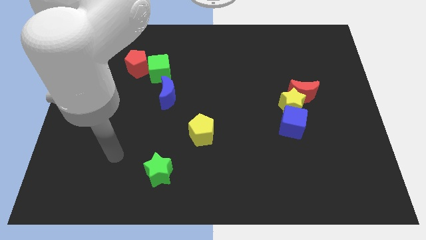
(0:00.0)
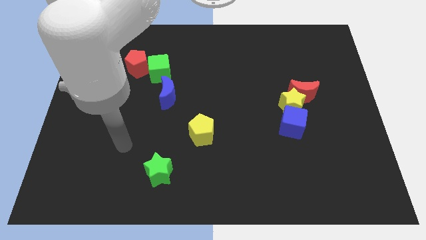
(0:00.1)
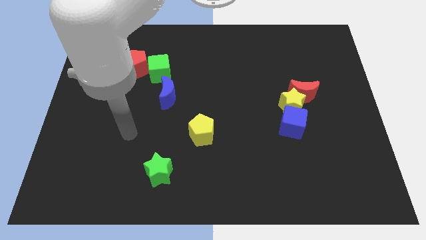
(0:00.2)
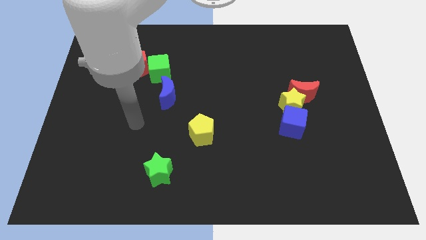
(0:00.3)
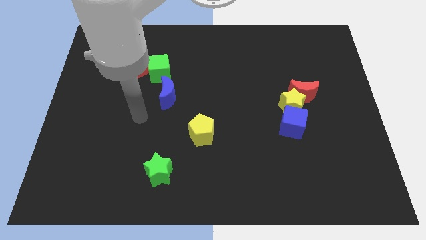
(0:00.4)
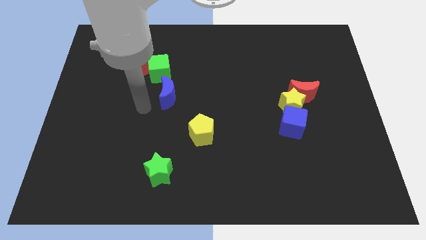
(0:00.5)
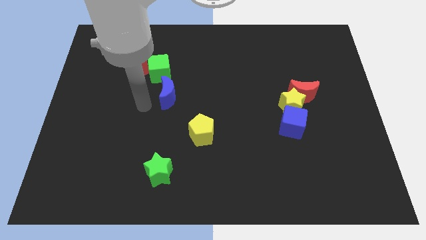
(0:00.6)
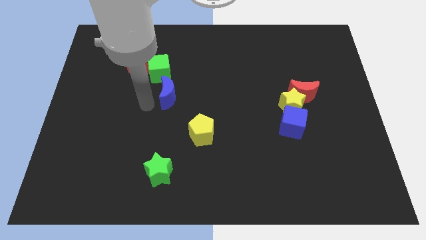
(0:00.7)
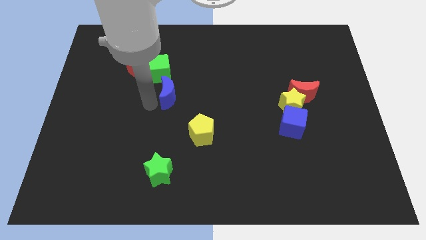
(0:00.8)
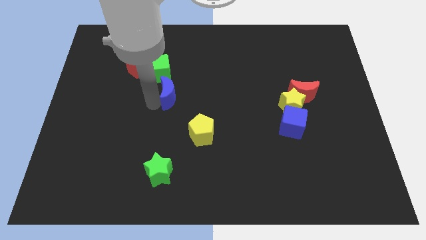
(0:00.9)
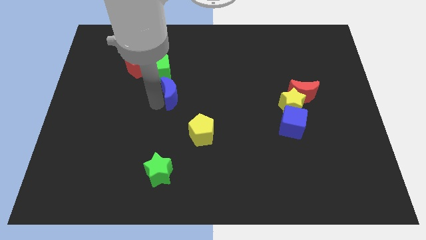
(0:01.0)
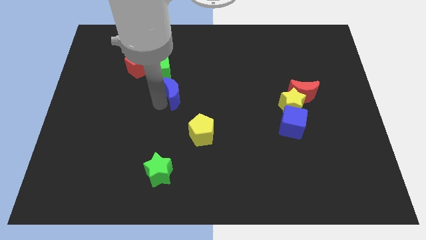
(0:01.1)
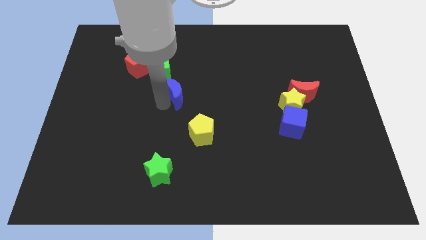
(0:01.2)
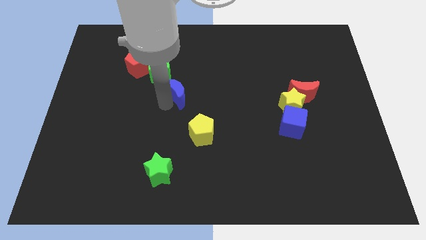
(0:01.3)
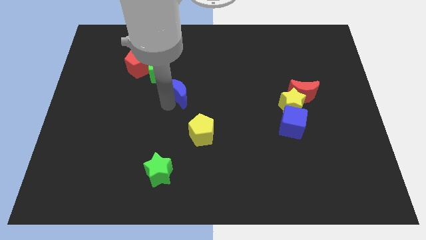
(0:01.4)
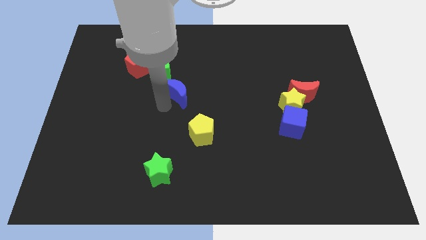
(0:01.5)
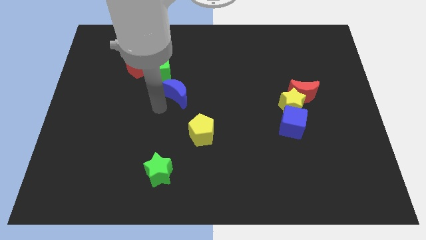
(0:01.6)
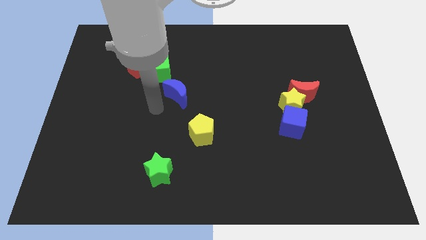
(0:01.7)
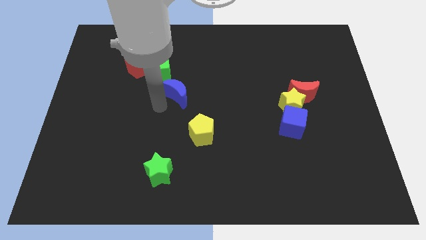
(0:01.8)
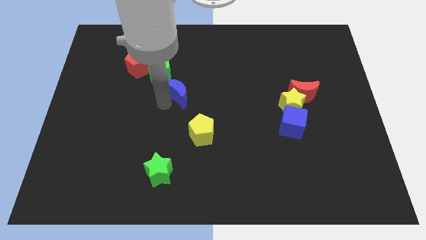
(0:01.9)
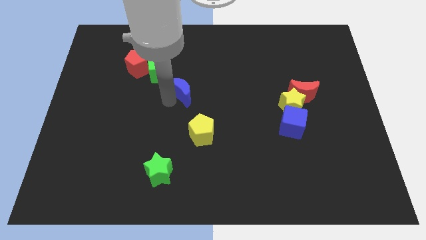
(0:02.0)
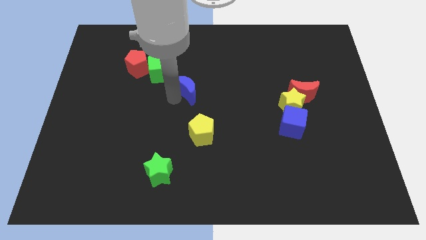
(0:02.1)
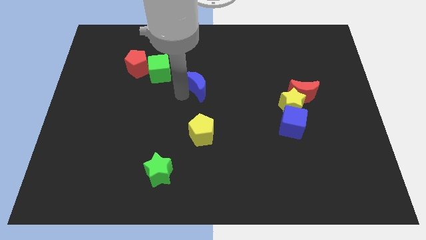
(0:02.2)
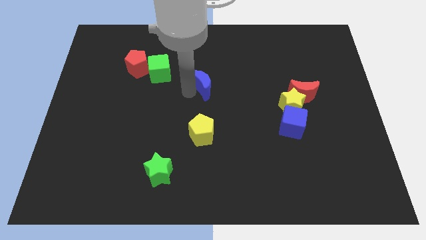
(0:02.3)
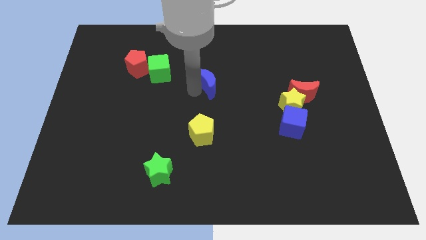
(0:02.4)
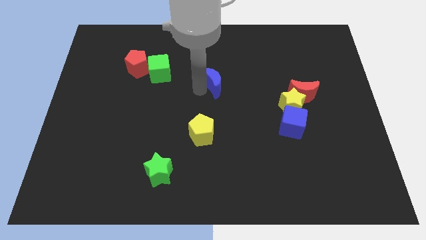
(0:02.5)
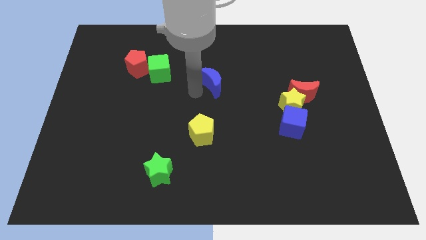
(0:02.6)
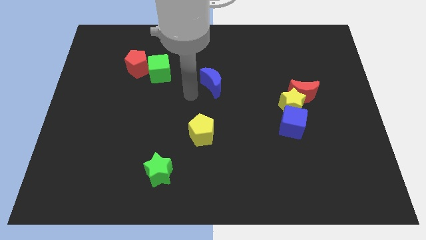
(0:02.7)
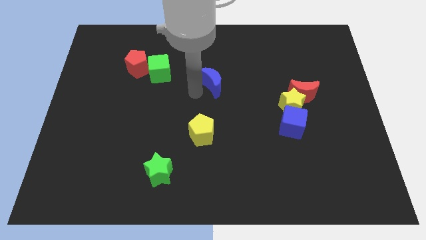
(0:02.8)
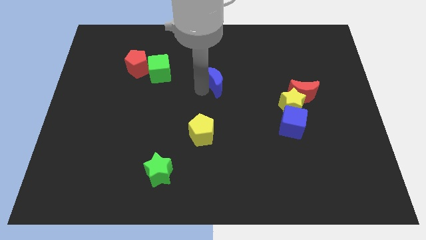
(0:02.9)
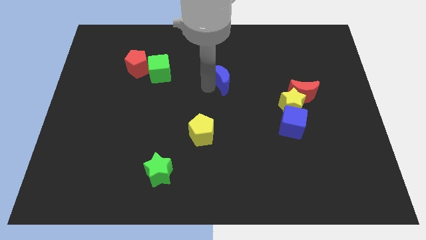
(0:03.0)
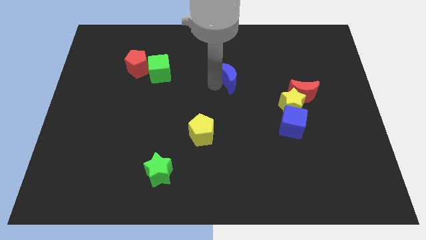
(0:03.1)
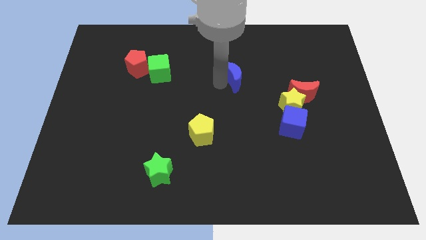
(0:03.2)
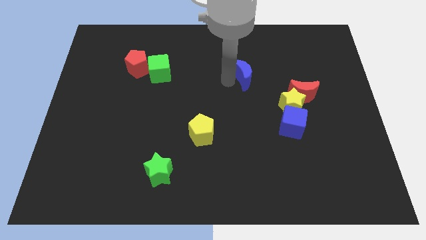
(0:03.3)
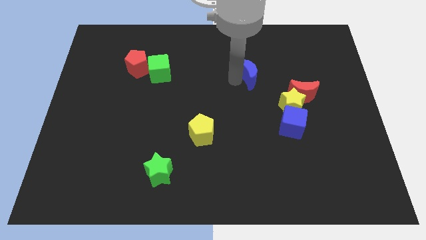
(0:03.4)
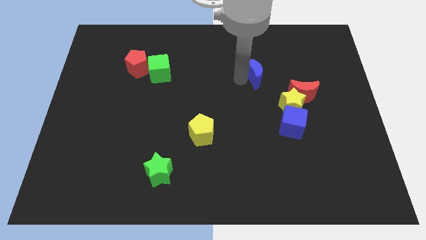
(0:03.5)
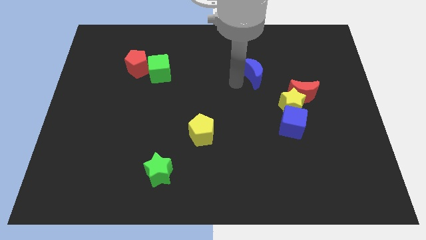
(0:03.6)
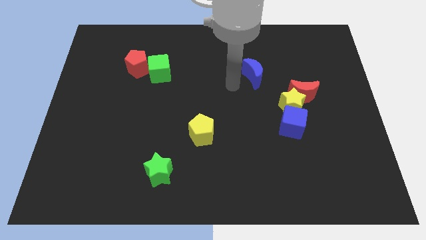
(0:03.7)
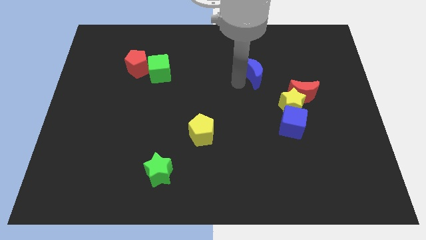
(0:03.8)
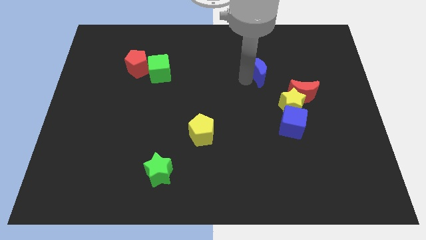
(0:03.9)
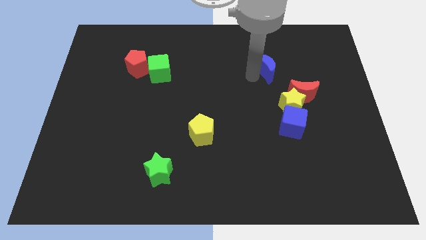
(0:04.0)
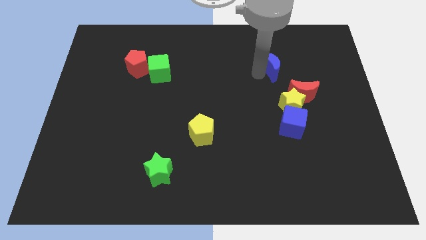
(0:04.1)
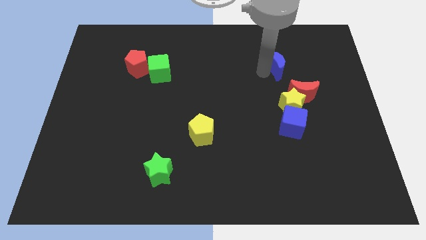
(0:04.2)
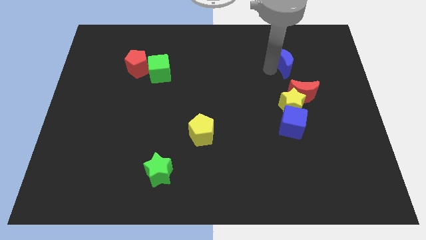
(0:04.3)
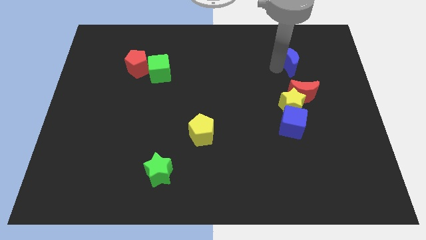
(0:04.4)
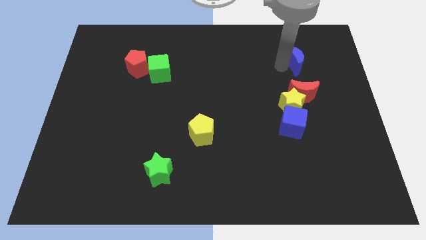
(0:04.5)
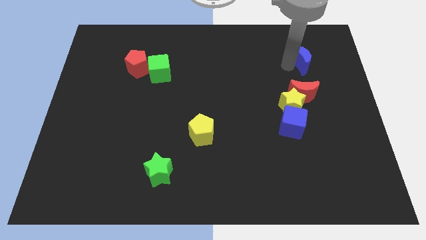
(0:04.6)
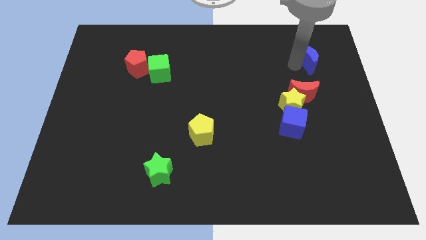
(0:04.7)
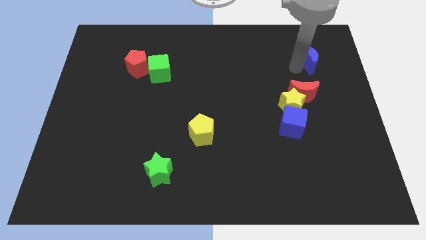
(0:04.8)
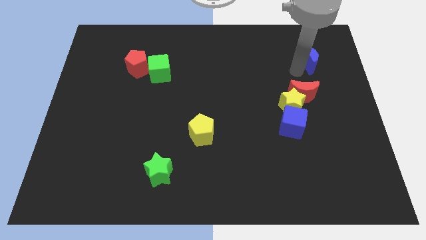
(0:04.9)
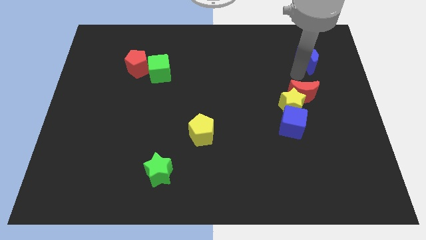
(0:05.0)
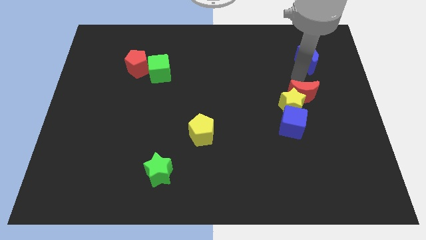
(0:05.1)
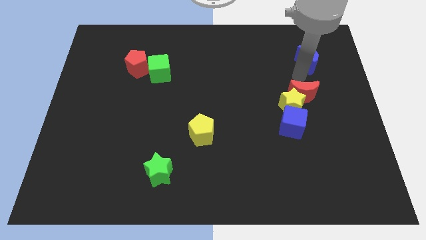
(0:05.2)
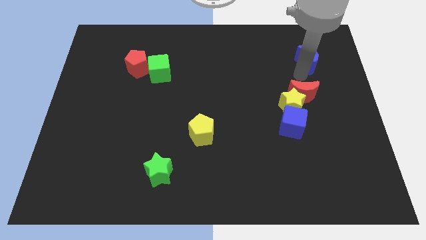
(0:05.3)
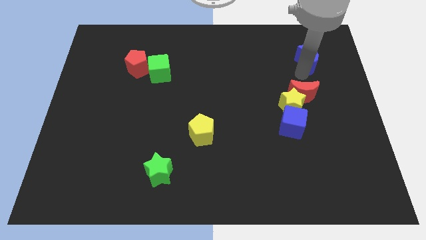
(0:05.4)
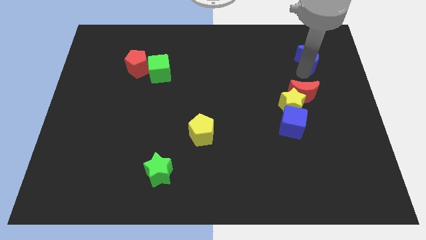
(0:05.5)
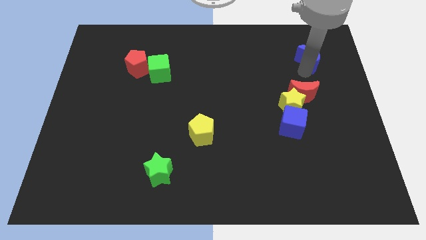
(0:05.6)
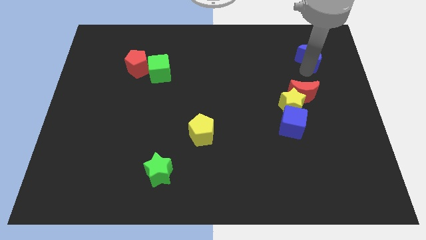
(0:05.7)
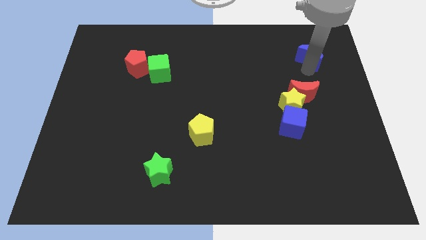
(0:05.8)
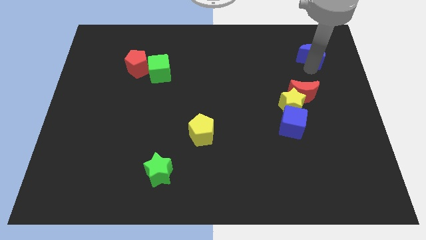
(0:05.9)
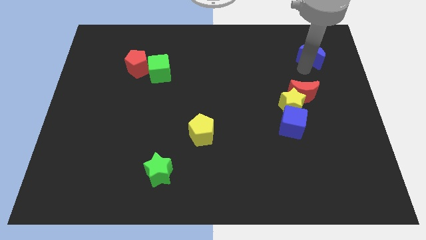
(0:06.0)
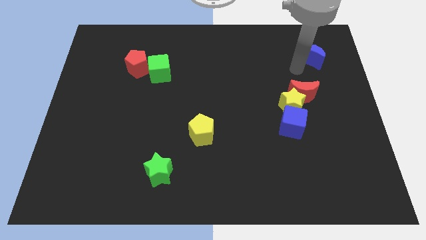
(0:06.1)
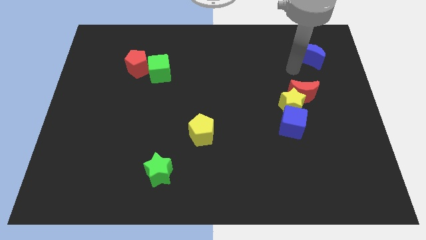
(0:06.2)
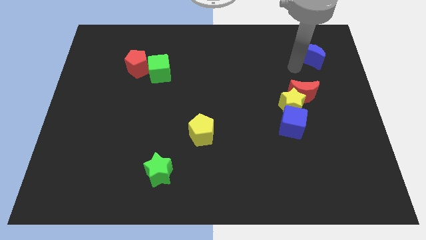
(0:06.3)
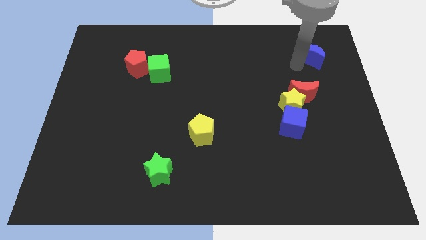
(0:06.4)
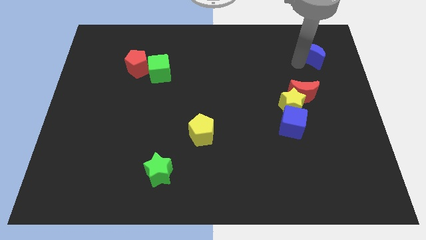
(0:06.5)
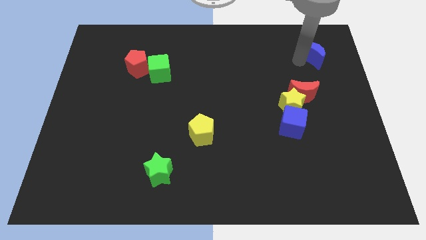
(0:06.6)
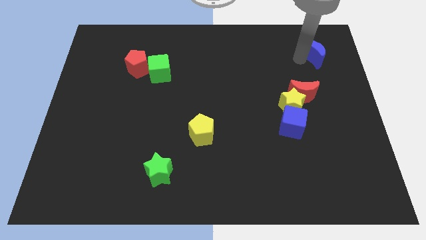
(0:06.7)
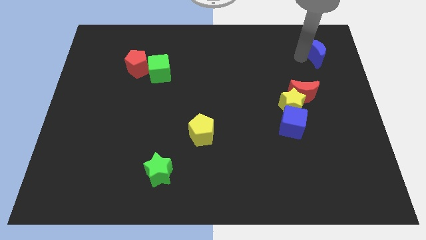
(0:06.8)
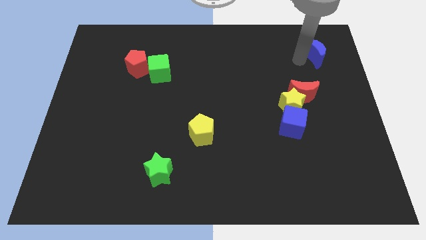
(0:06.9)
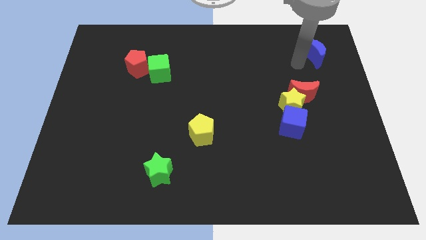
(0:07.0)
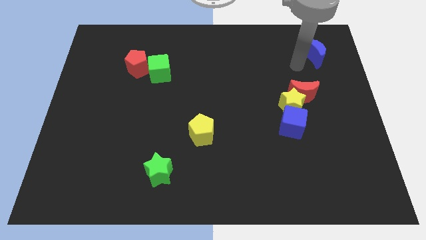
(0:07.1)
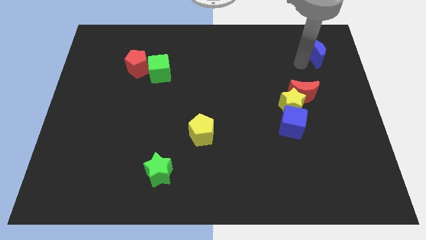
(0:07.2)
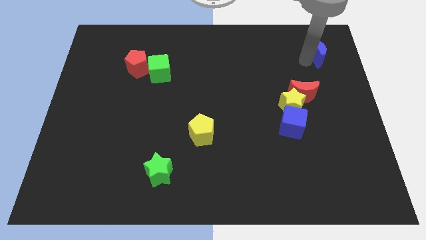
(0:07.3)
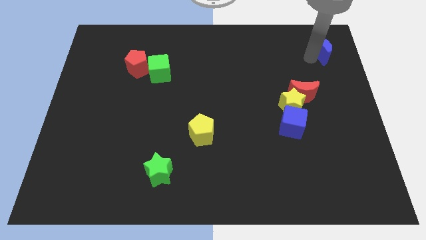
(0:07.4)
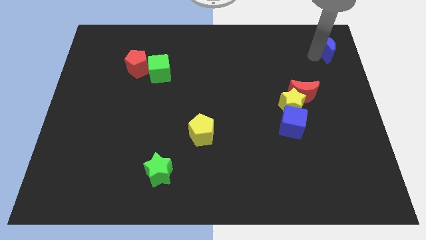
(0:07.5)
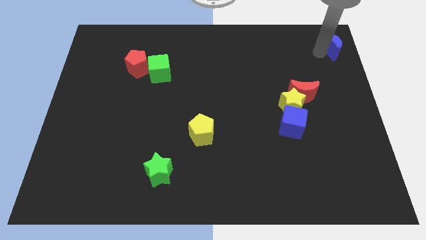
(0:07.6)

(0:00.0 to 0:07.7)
put the blue moon to the top right

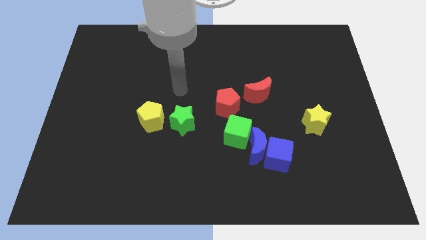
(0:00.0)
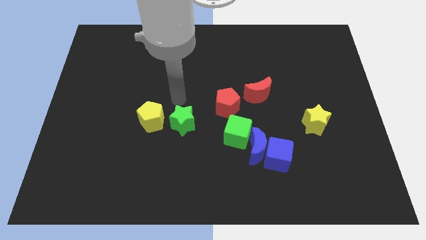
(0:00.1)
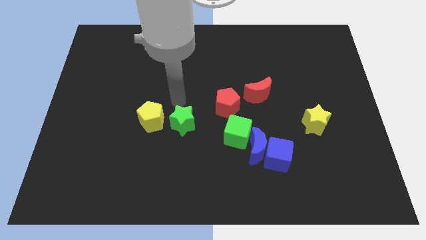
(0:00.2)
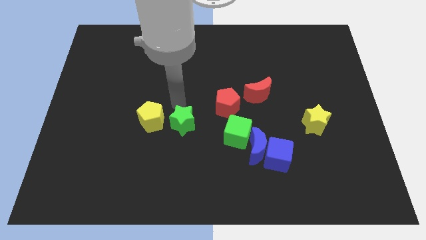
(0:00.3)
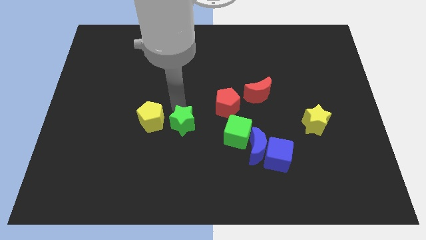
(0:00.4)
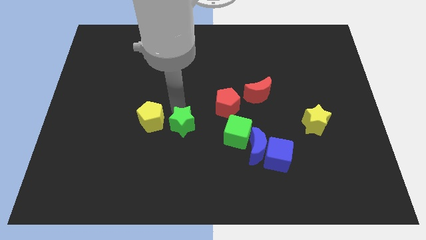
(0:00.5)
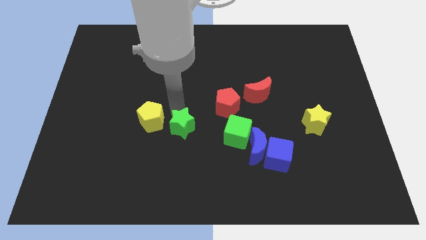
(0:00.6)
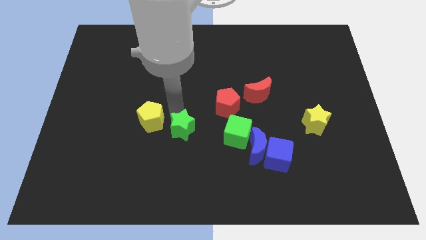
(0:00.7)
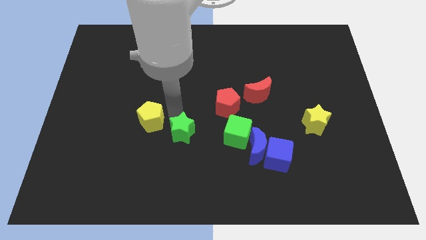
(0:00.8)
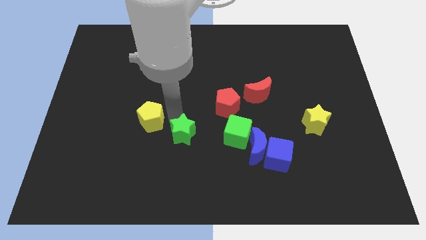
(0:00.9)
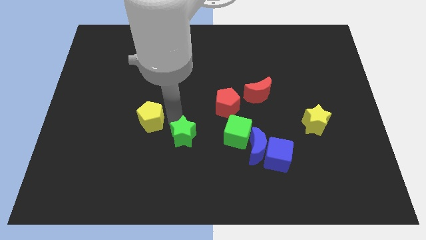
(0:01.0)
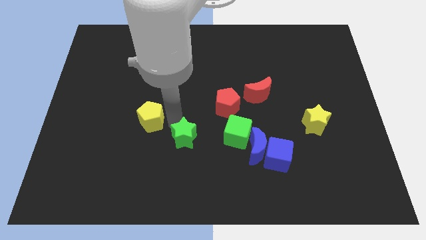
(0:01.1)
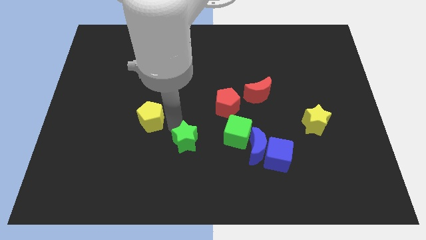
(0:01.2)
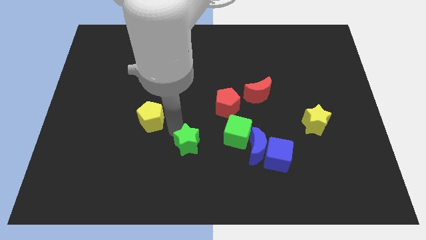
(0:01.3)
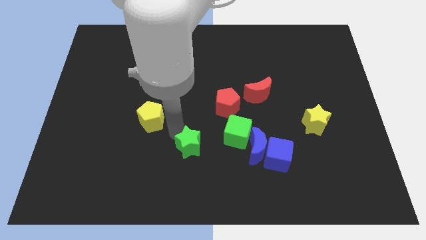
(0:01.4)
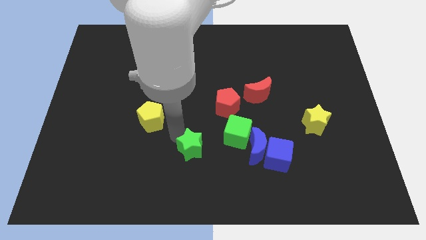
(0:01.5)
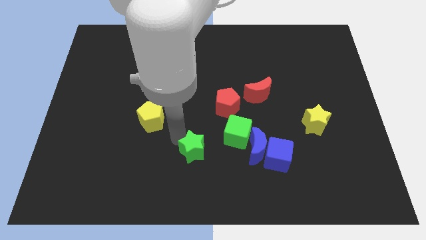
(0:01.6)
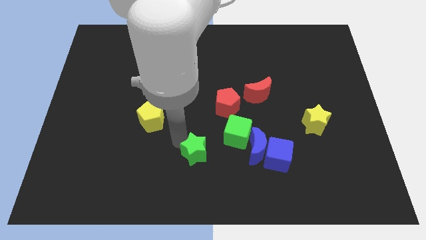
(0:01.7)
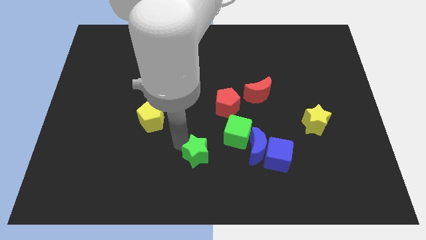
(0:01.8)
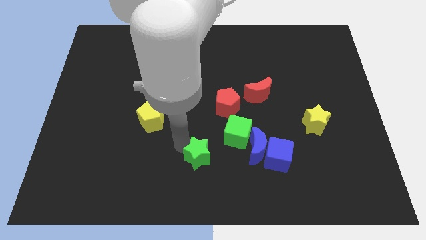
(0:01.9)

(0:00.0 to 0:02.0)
push the green star to the bottom side
